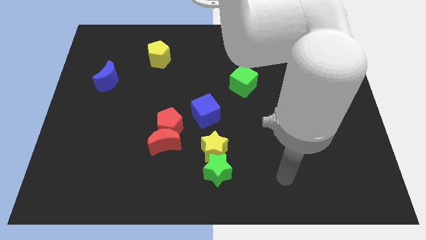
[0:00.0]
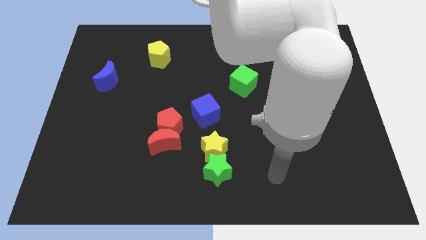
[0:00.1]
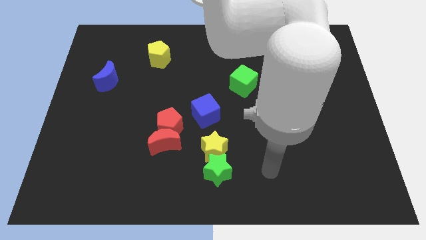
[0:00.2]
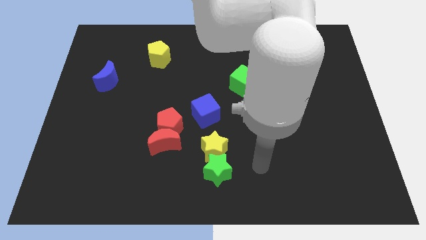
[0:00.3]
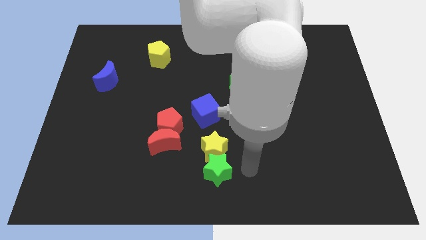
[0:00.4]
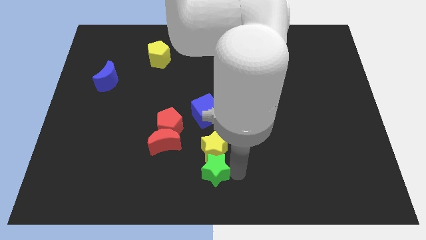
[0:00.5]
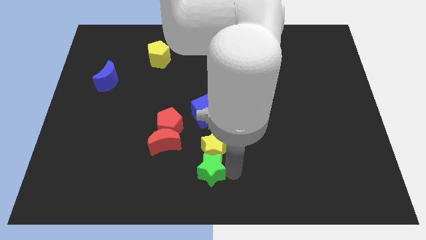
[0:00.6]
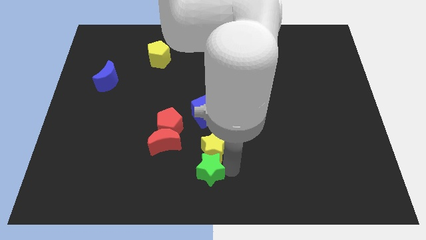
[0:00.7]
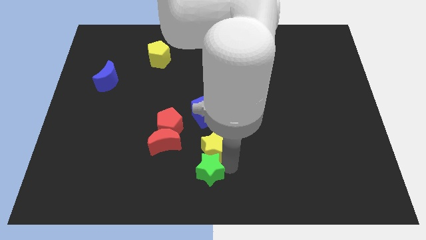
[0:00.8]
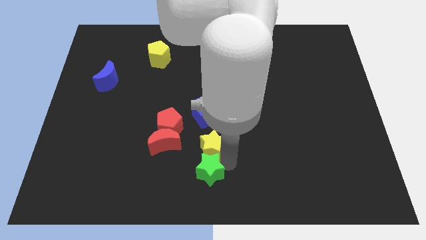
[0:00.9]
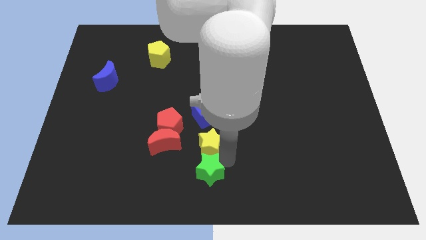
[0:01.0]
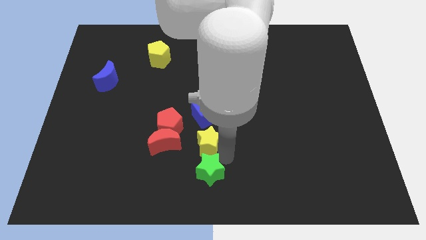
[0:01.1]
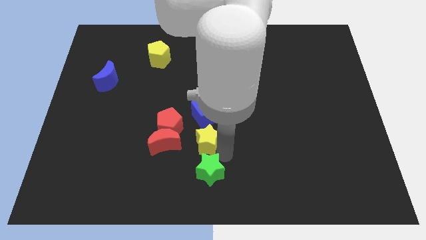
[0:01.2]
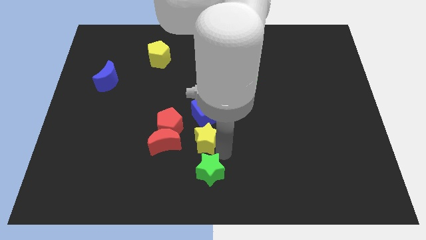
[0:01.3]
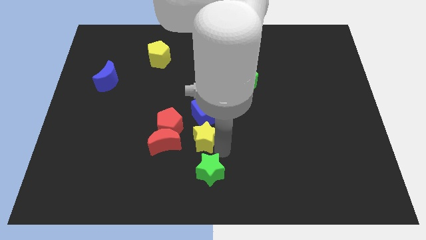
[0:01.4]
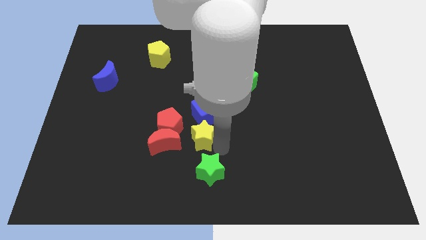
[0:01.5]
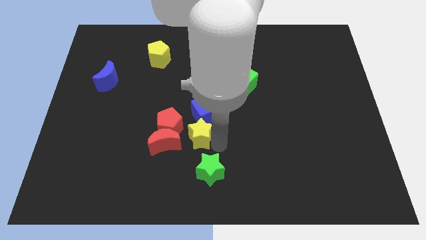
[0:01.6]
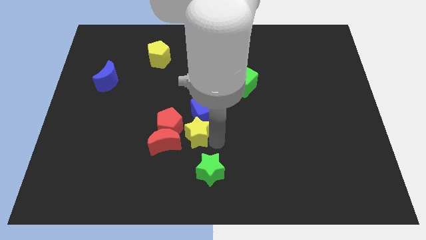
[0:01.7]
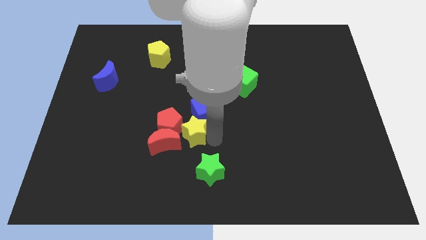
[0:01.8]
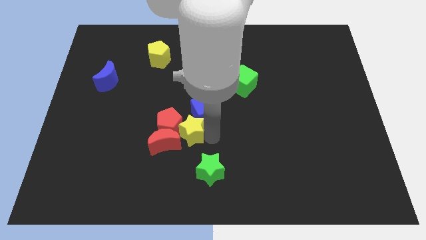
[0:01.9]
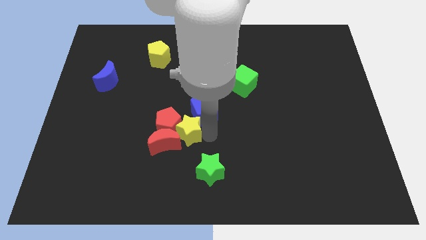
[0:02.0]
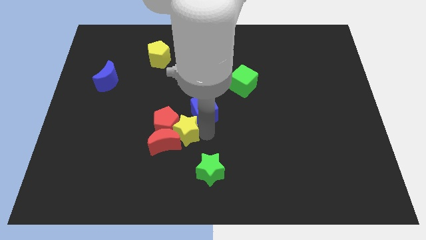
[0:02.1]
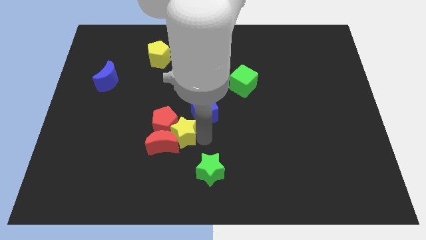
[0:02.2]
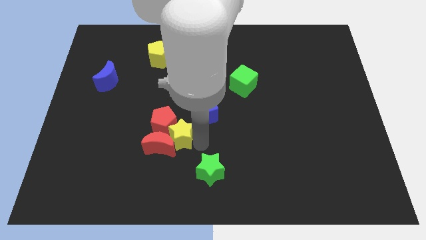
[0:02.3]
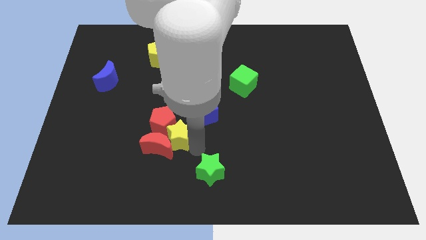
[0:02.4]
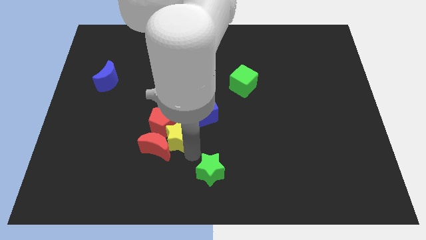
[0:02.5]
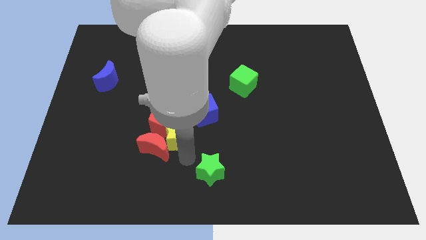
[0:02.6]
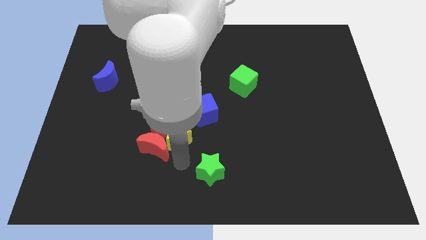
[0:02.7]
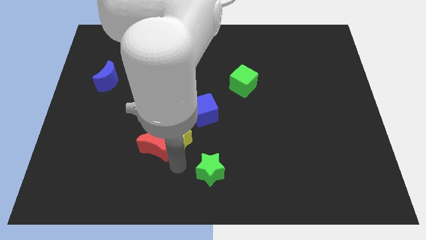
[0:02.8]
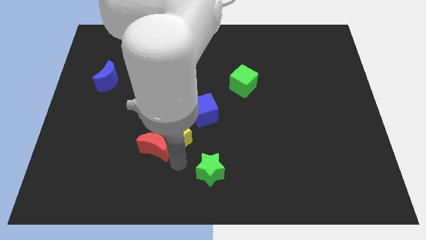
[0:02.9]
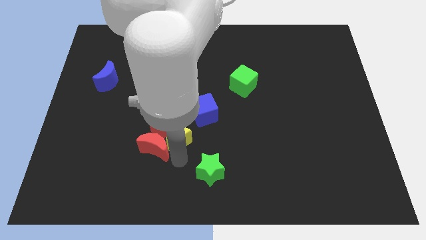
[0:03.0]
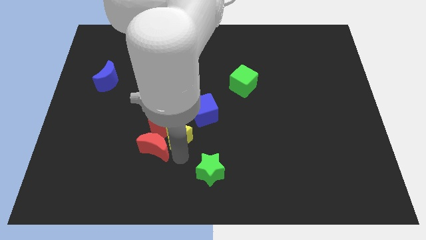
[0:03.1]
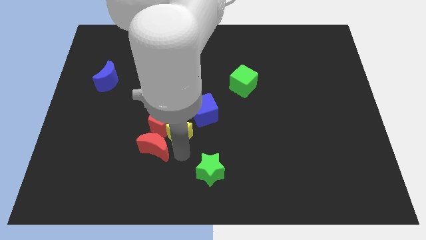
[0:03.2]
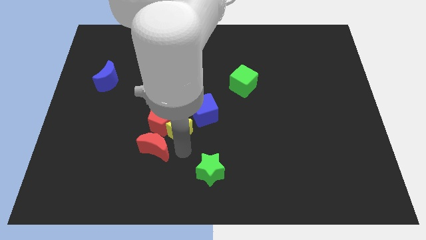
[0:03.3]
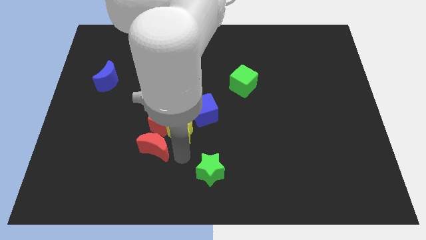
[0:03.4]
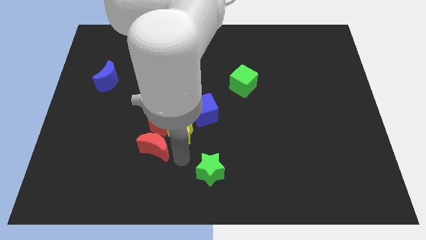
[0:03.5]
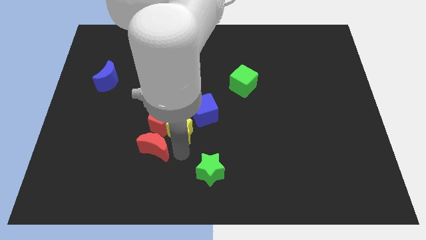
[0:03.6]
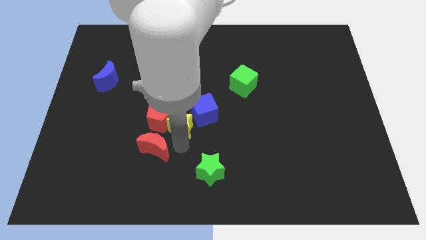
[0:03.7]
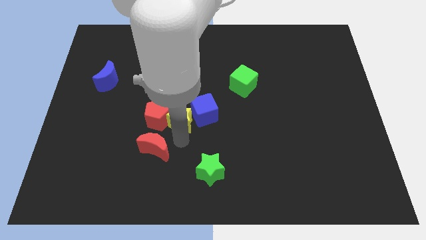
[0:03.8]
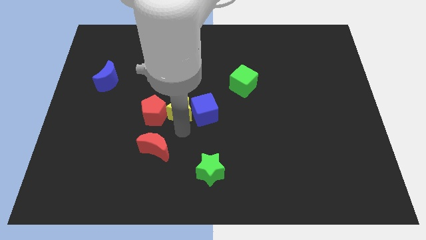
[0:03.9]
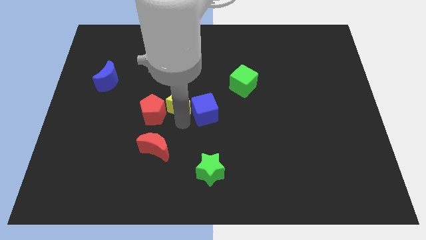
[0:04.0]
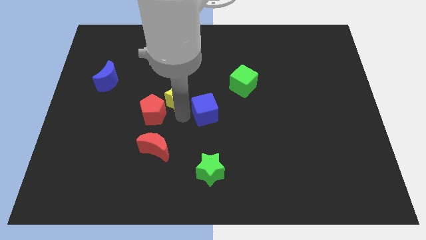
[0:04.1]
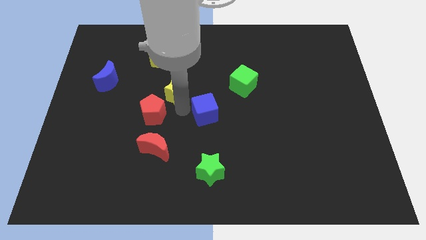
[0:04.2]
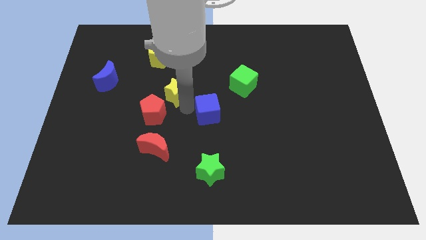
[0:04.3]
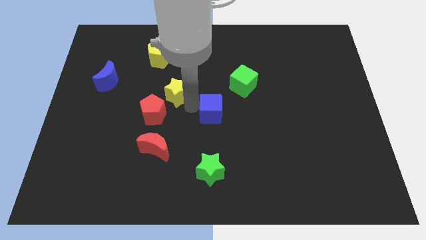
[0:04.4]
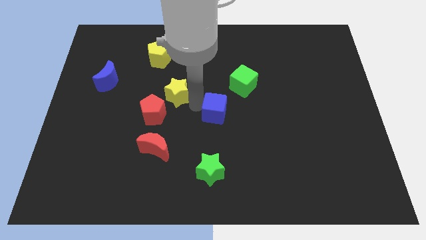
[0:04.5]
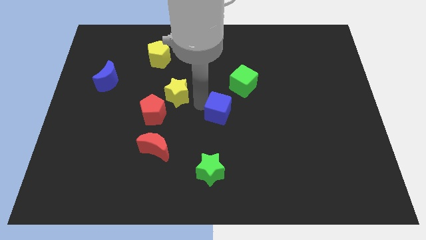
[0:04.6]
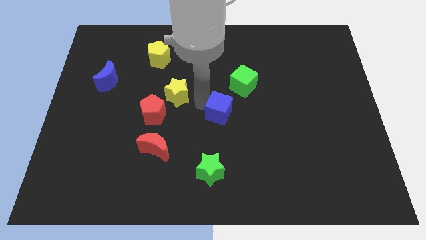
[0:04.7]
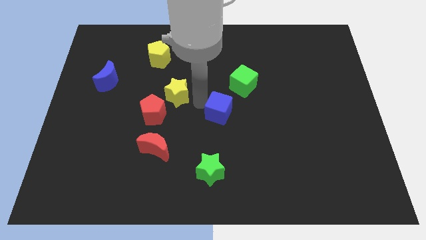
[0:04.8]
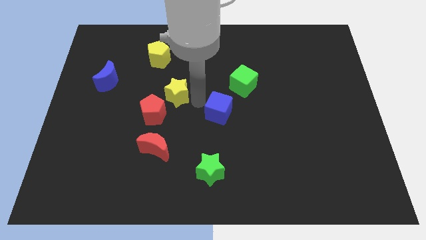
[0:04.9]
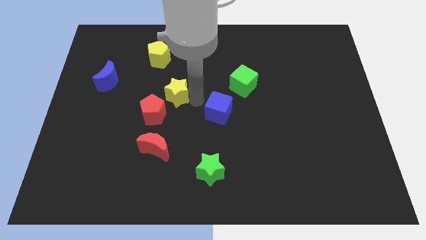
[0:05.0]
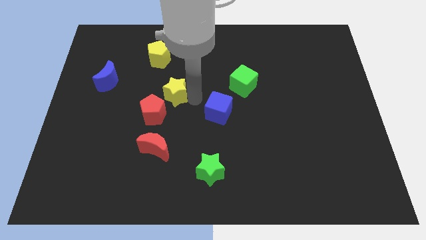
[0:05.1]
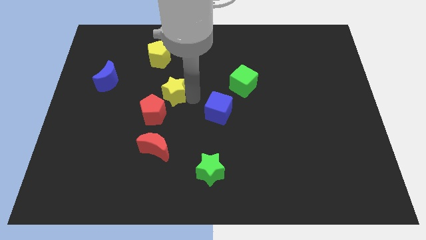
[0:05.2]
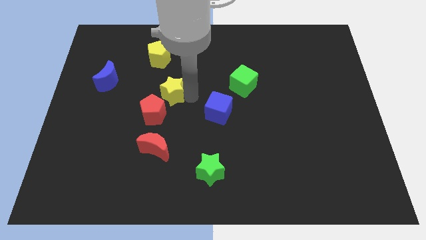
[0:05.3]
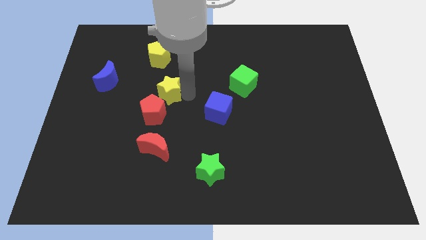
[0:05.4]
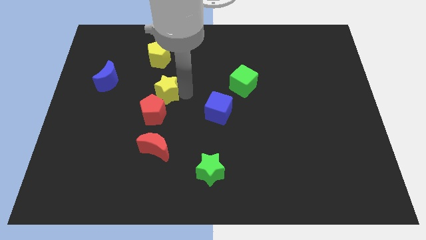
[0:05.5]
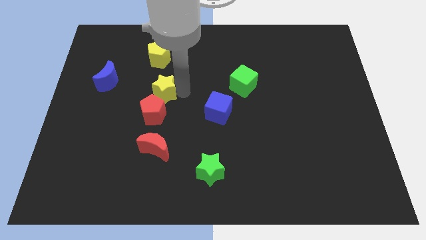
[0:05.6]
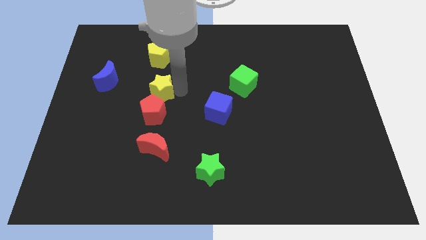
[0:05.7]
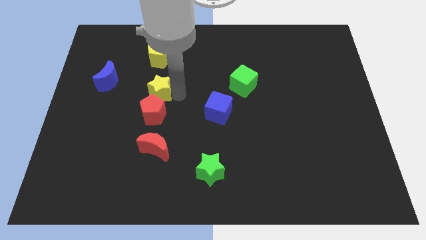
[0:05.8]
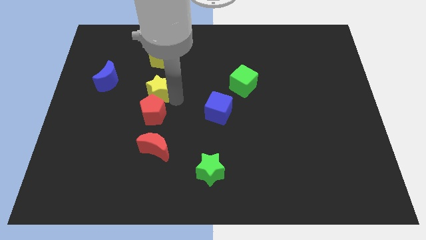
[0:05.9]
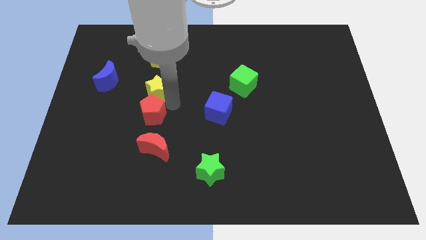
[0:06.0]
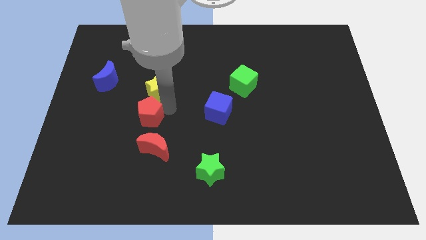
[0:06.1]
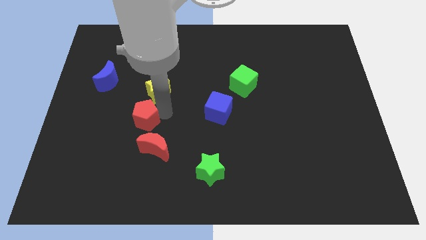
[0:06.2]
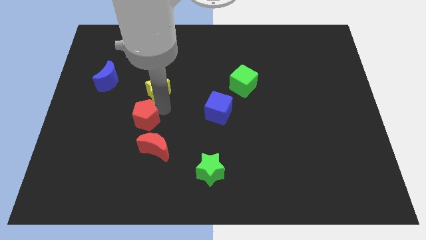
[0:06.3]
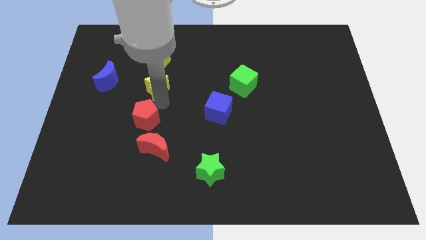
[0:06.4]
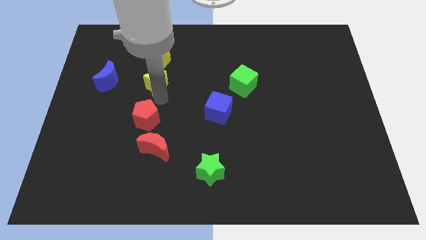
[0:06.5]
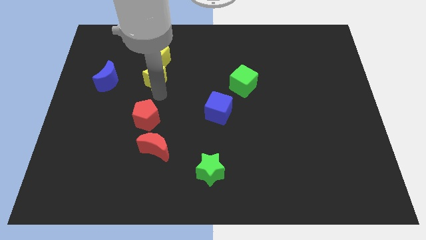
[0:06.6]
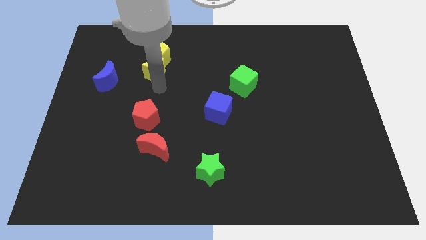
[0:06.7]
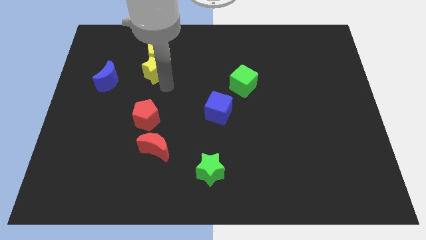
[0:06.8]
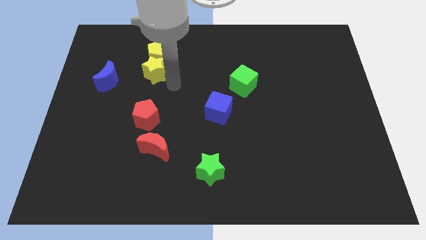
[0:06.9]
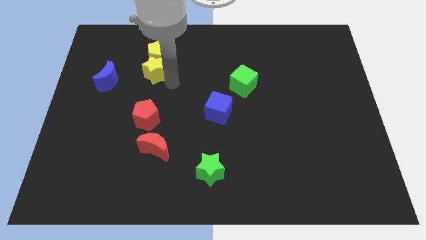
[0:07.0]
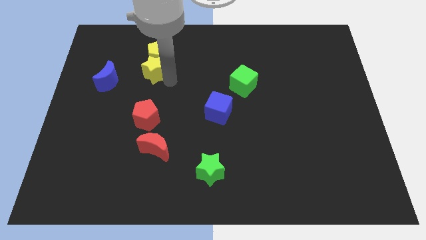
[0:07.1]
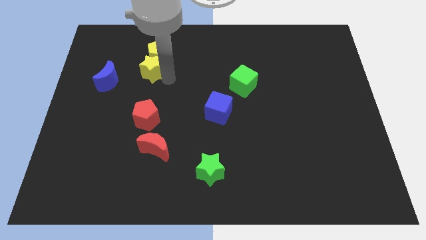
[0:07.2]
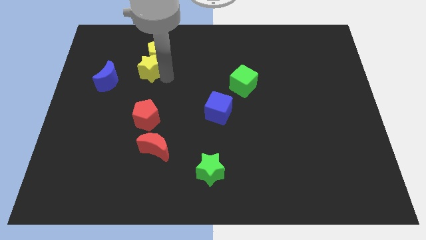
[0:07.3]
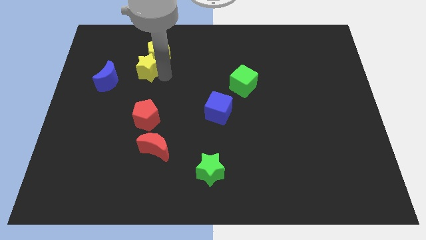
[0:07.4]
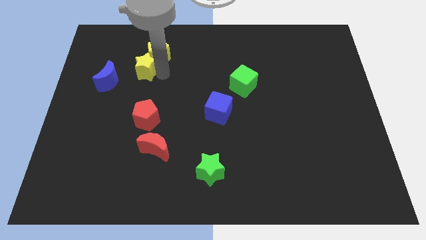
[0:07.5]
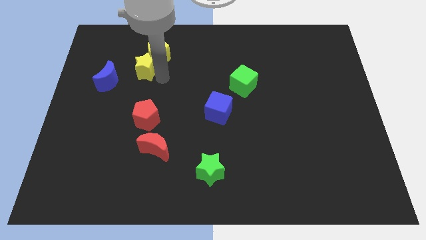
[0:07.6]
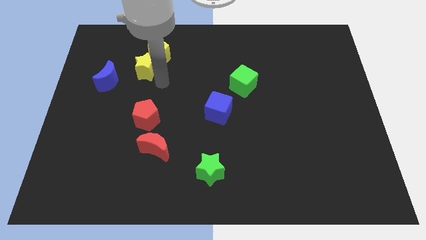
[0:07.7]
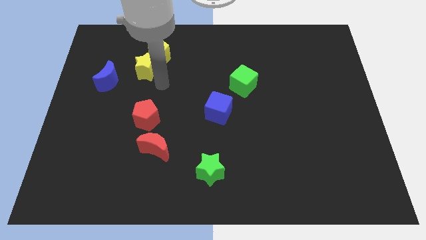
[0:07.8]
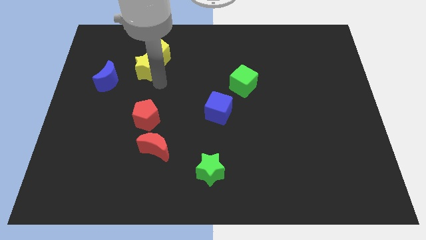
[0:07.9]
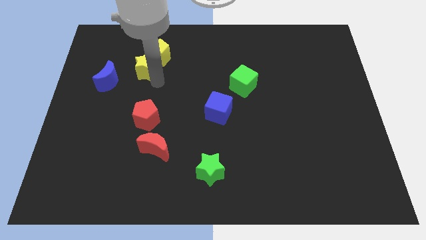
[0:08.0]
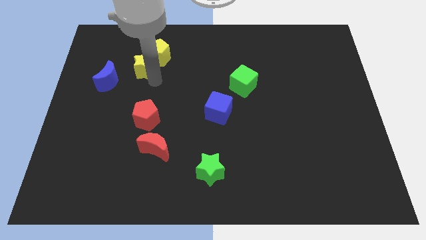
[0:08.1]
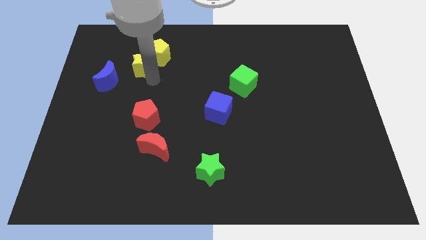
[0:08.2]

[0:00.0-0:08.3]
move the yellow star to the left side of the yellow pentagon
